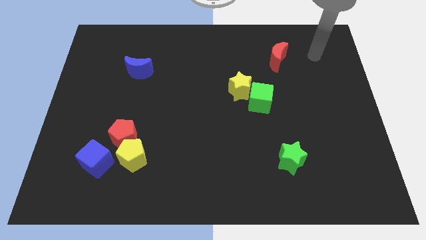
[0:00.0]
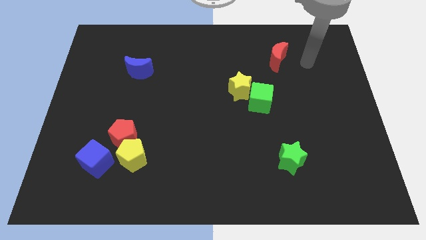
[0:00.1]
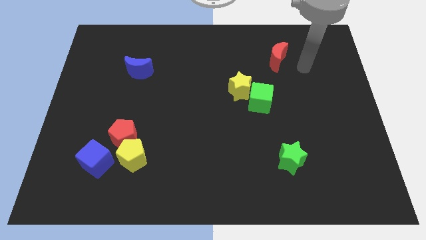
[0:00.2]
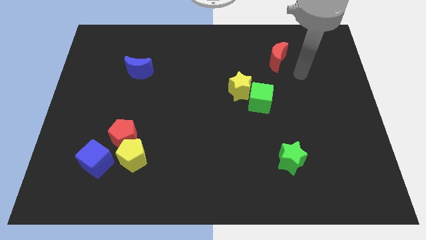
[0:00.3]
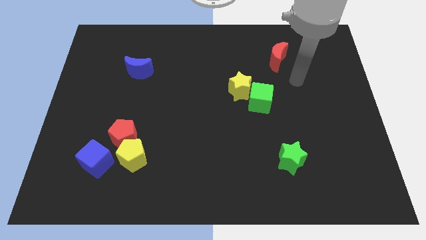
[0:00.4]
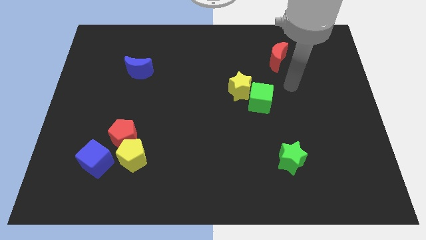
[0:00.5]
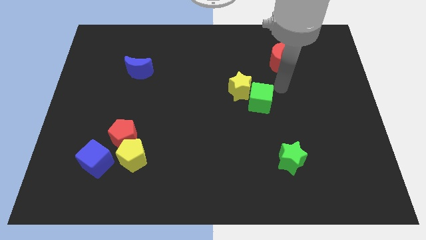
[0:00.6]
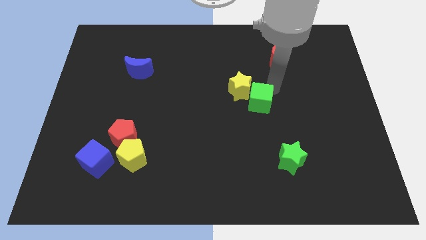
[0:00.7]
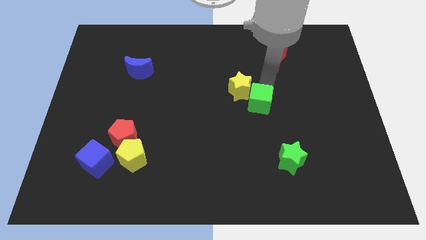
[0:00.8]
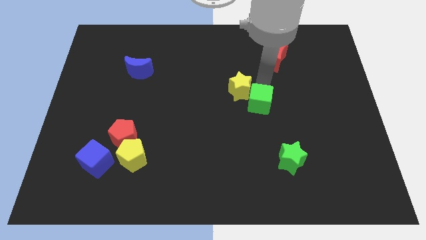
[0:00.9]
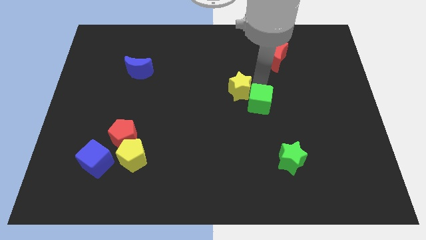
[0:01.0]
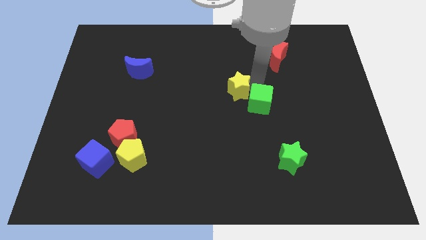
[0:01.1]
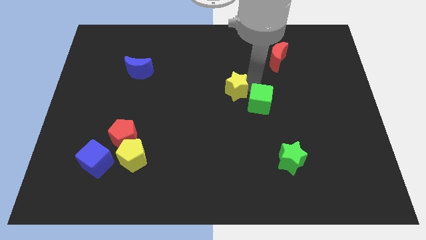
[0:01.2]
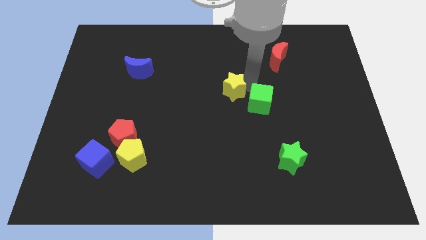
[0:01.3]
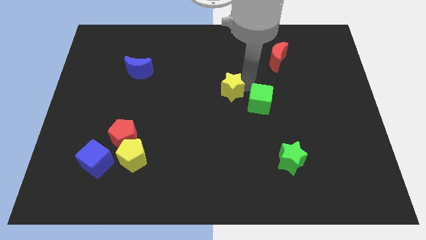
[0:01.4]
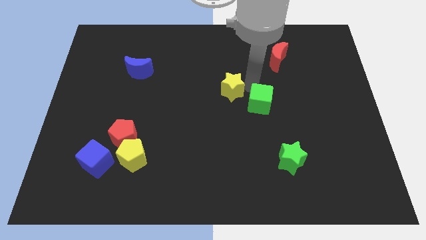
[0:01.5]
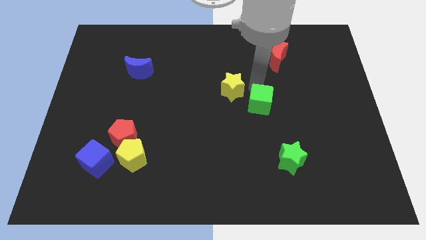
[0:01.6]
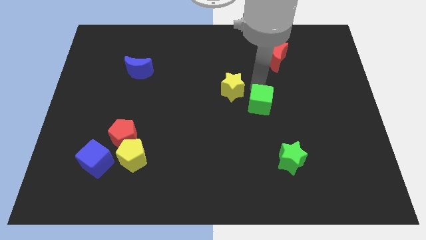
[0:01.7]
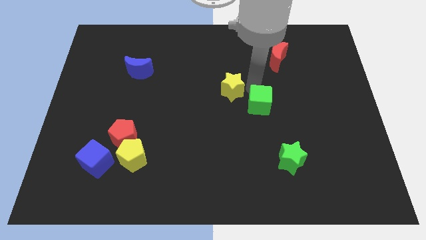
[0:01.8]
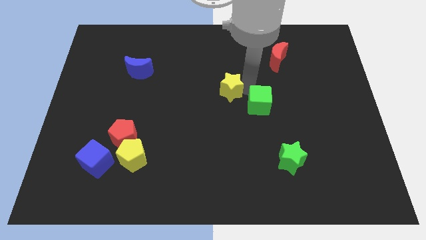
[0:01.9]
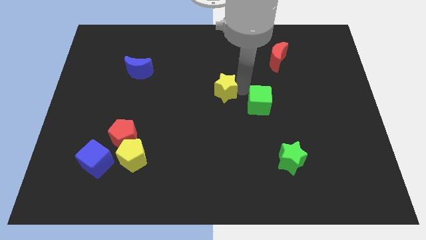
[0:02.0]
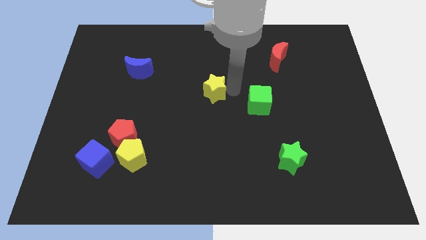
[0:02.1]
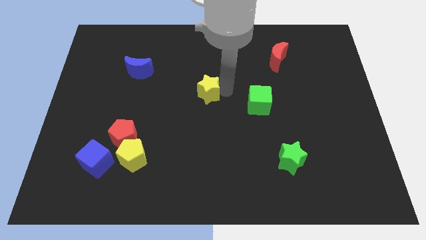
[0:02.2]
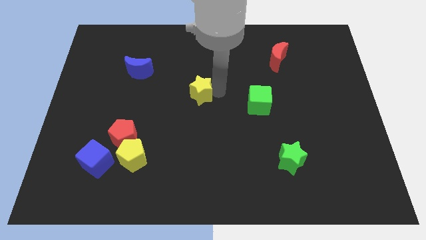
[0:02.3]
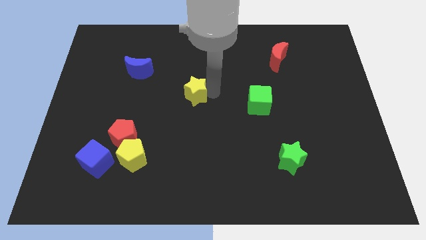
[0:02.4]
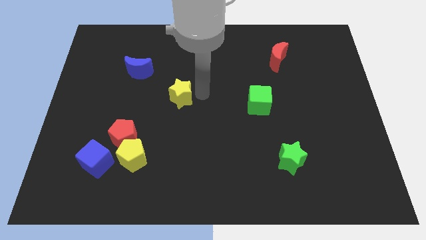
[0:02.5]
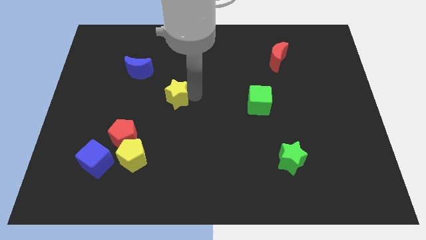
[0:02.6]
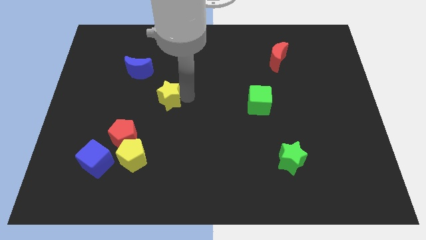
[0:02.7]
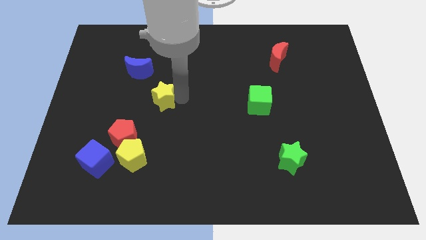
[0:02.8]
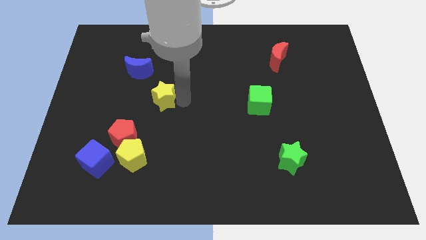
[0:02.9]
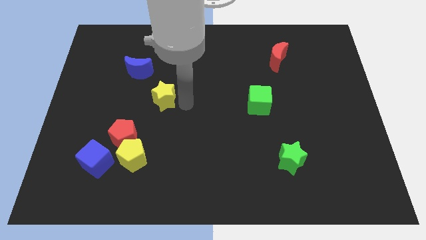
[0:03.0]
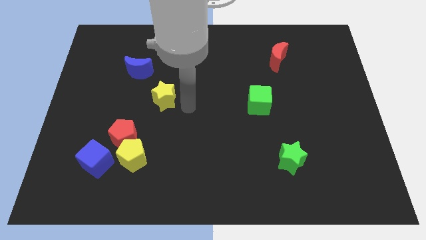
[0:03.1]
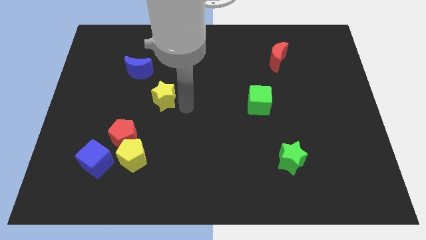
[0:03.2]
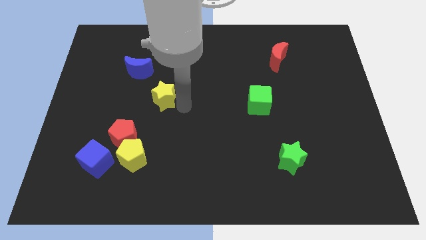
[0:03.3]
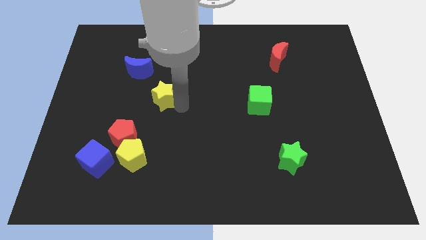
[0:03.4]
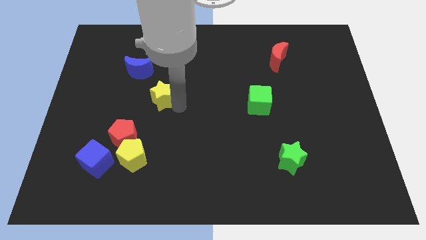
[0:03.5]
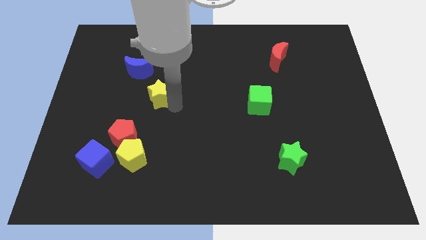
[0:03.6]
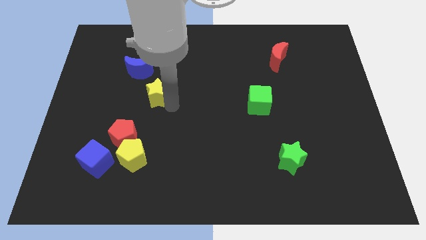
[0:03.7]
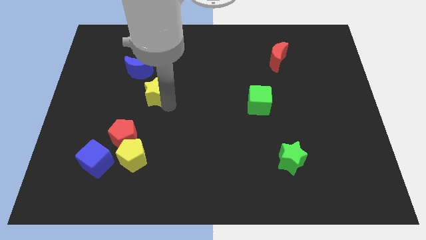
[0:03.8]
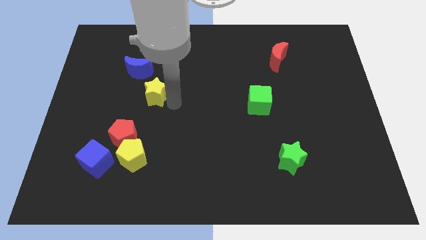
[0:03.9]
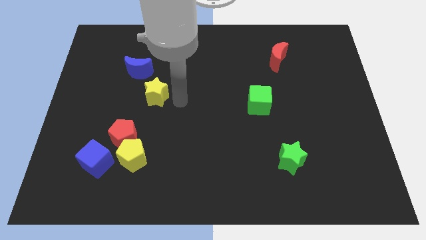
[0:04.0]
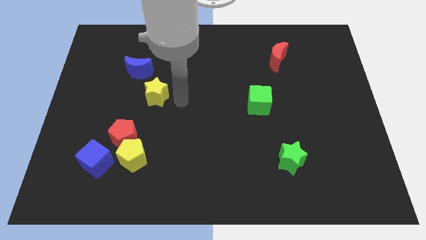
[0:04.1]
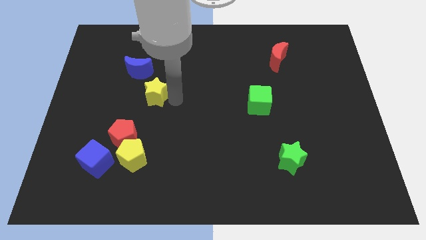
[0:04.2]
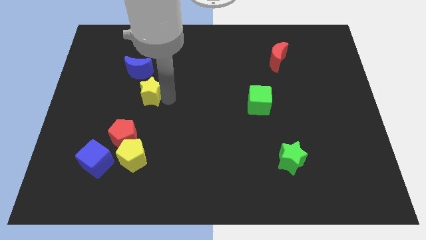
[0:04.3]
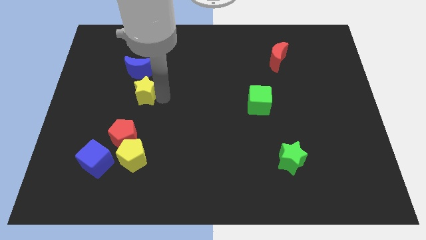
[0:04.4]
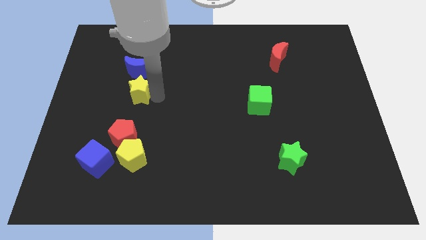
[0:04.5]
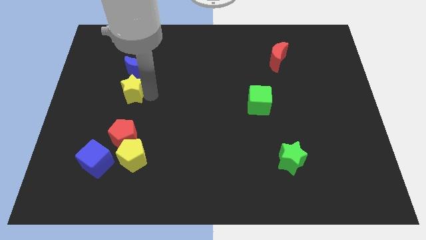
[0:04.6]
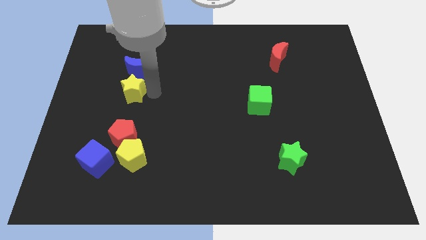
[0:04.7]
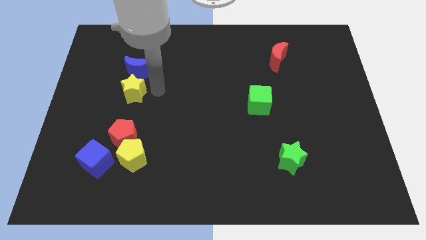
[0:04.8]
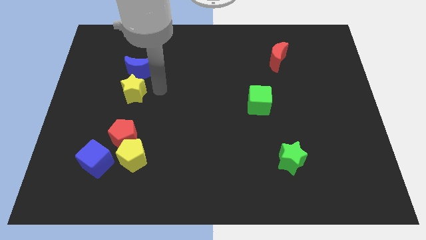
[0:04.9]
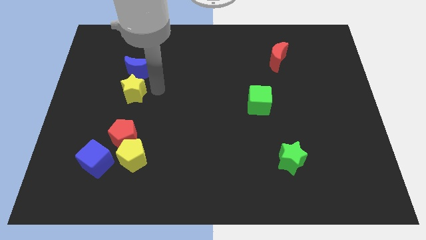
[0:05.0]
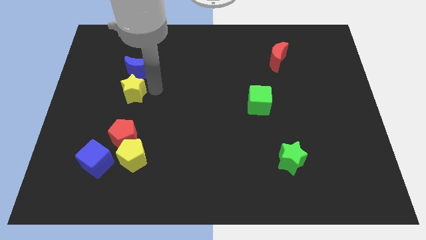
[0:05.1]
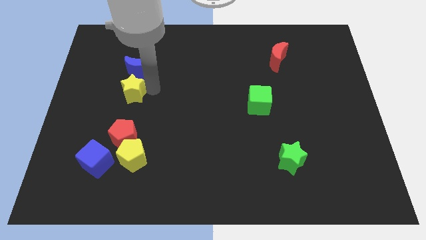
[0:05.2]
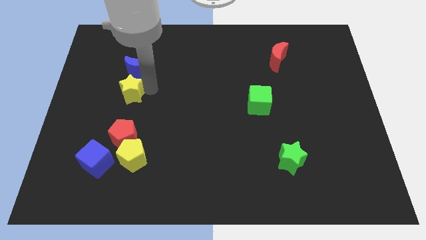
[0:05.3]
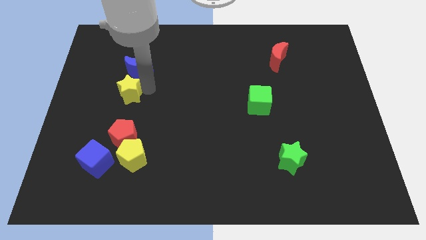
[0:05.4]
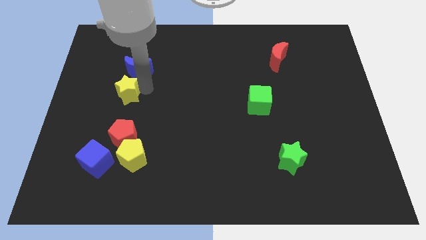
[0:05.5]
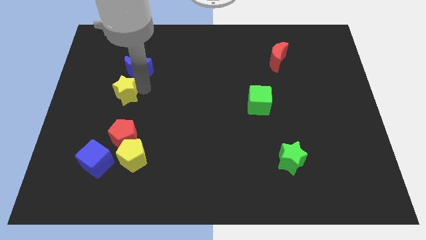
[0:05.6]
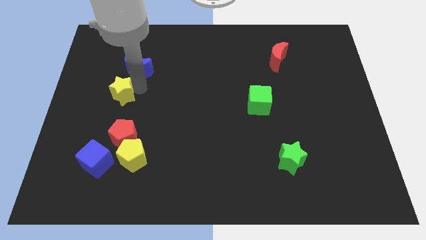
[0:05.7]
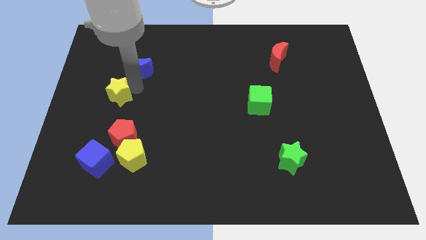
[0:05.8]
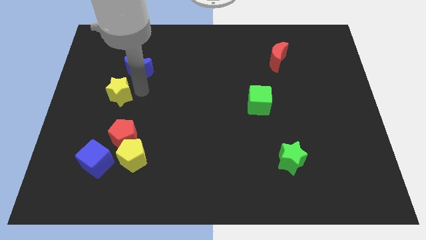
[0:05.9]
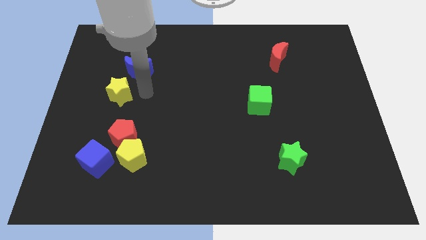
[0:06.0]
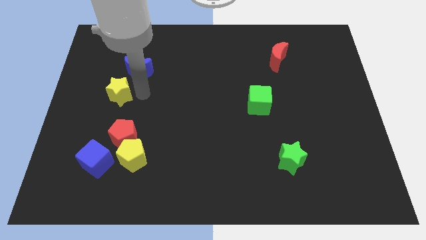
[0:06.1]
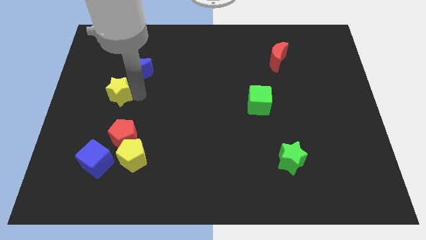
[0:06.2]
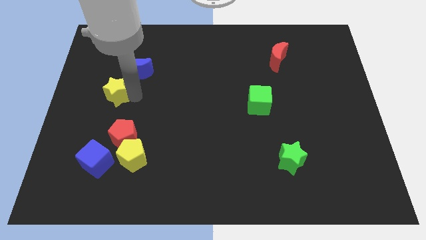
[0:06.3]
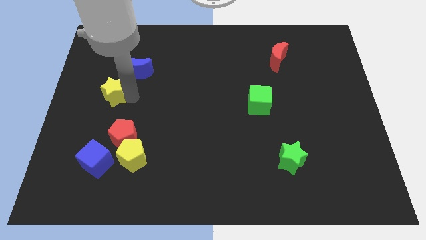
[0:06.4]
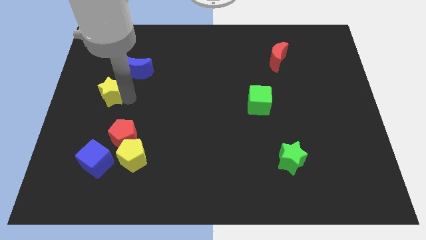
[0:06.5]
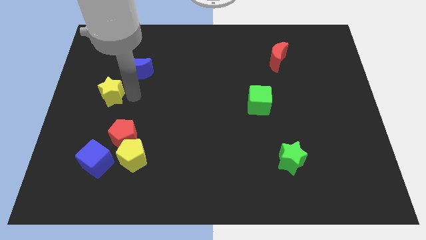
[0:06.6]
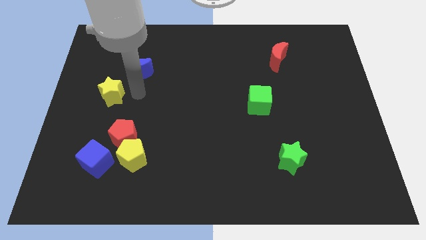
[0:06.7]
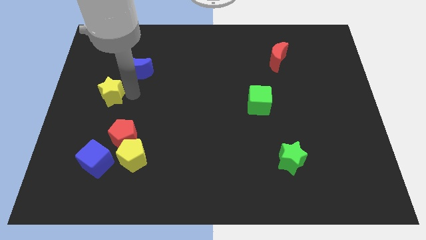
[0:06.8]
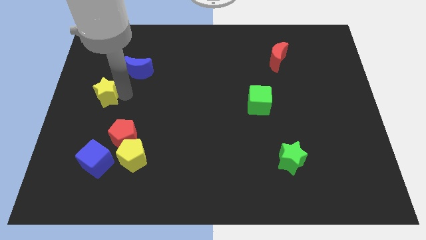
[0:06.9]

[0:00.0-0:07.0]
push the yellow star to the center left

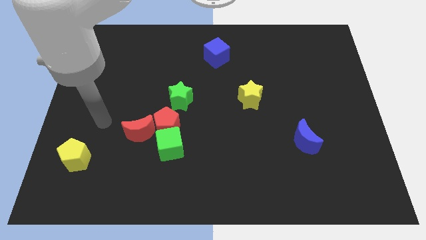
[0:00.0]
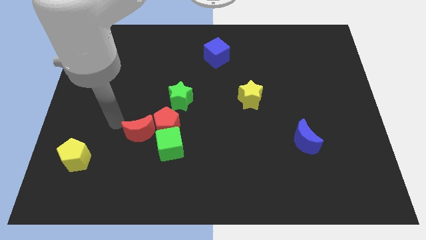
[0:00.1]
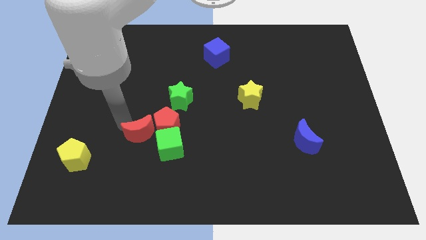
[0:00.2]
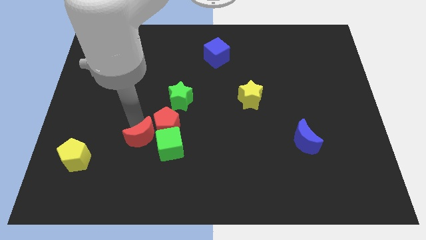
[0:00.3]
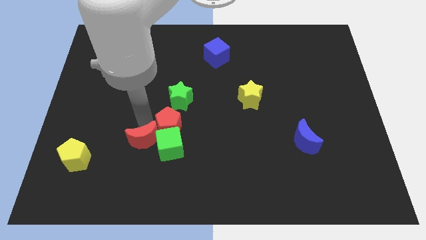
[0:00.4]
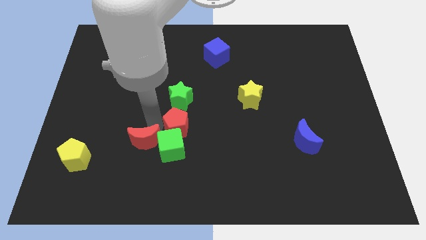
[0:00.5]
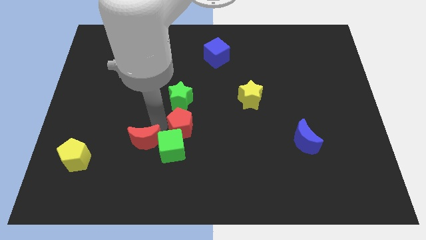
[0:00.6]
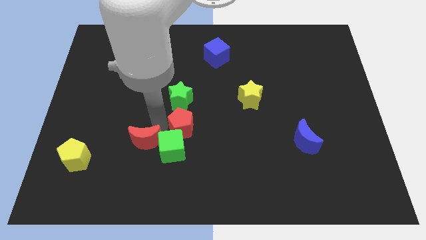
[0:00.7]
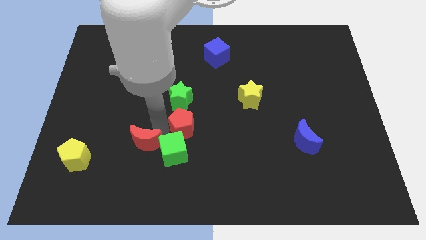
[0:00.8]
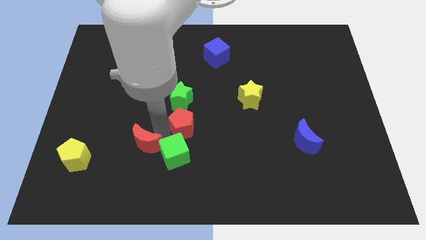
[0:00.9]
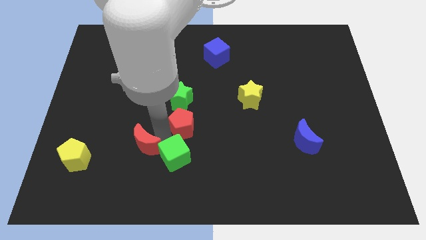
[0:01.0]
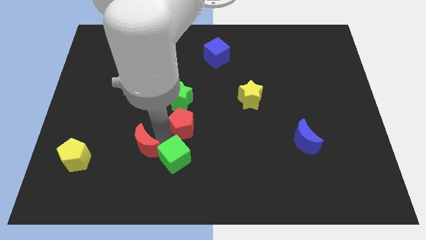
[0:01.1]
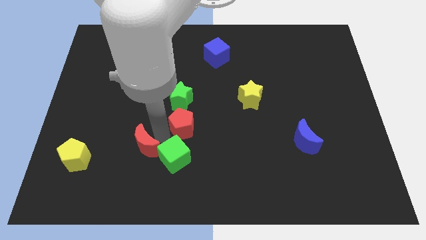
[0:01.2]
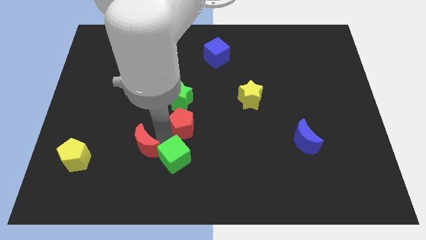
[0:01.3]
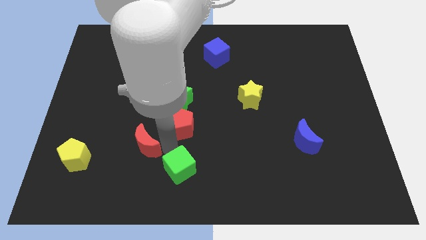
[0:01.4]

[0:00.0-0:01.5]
put the green cube to the bottom
